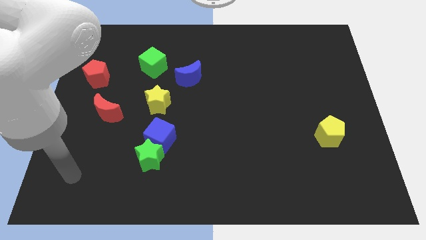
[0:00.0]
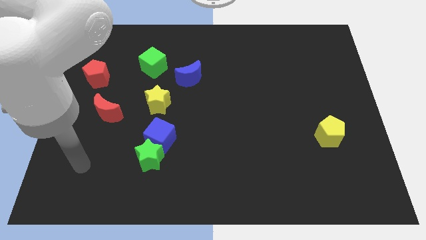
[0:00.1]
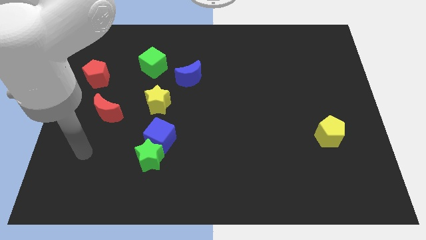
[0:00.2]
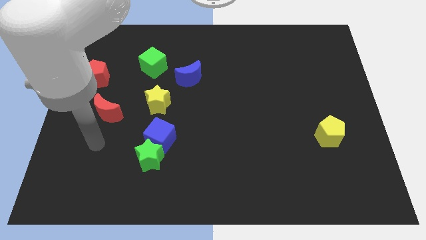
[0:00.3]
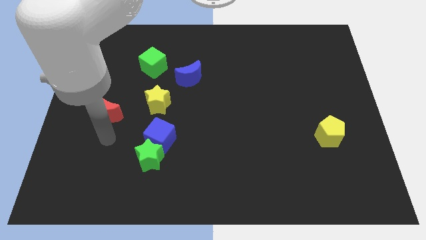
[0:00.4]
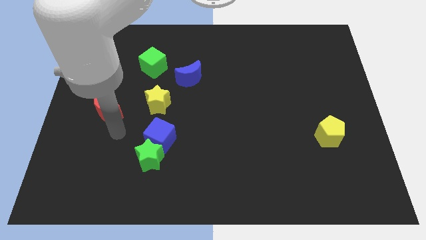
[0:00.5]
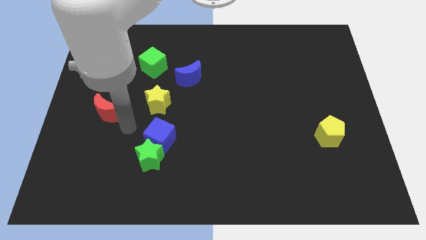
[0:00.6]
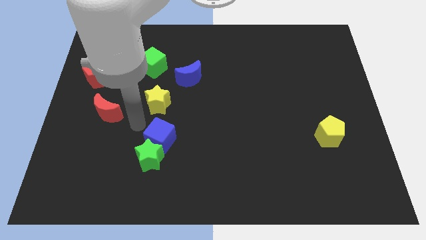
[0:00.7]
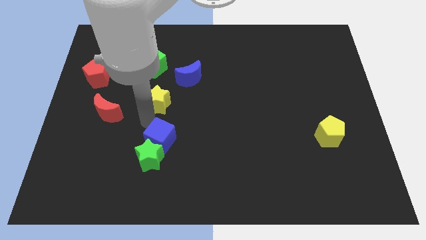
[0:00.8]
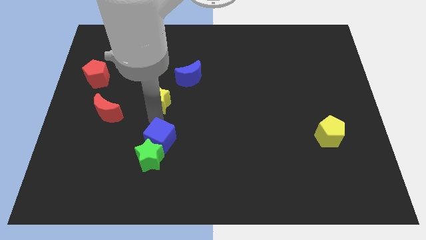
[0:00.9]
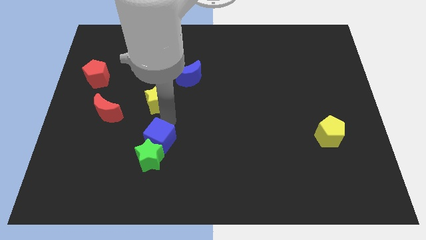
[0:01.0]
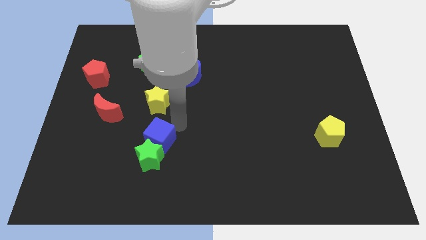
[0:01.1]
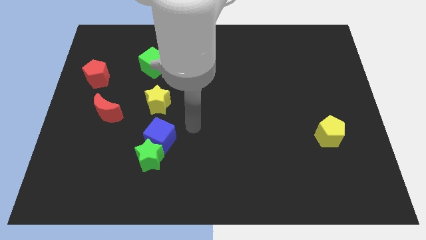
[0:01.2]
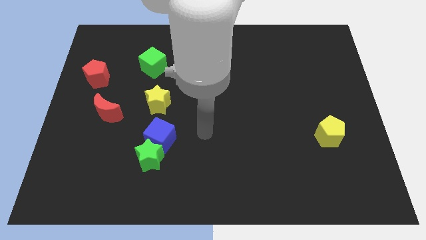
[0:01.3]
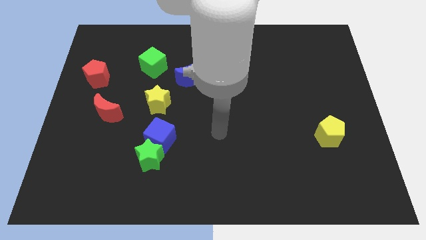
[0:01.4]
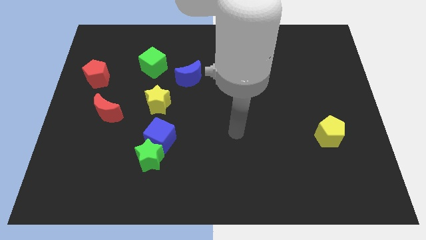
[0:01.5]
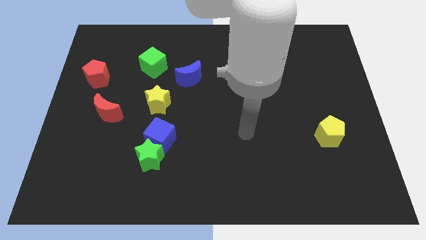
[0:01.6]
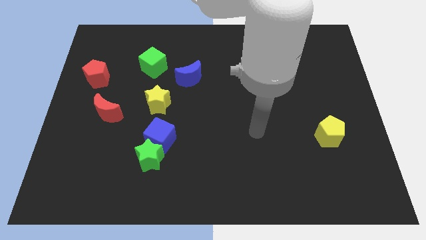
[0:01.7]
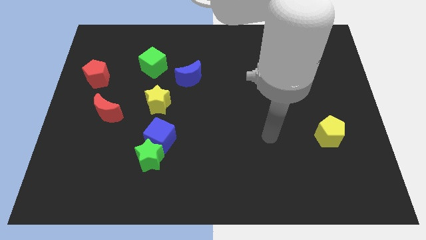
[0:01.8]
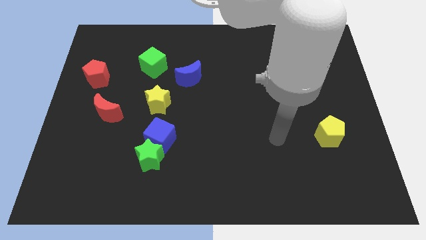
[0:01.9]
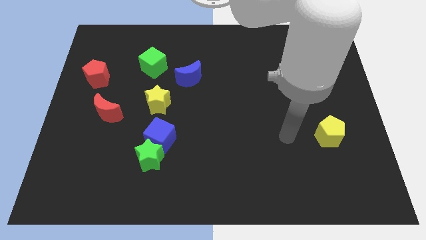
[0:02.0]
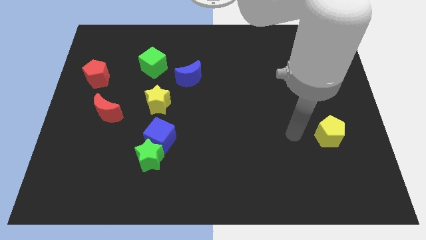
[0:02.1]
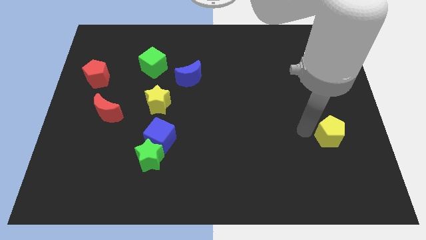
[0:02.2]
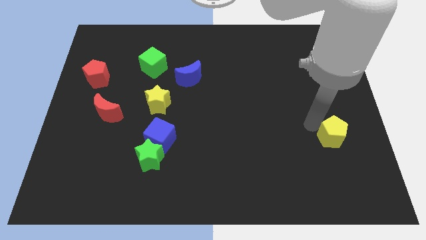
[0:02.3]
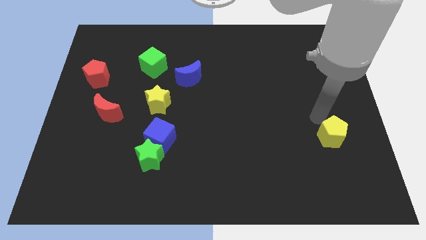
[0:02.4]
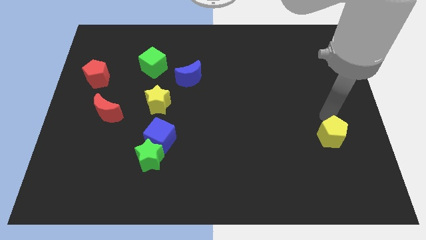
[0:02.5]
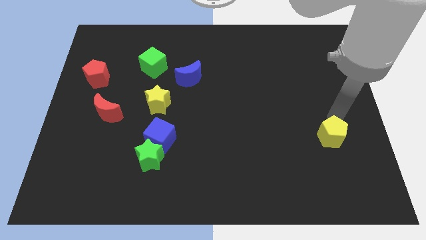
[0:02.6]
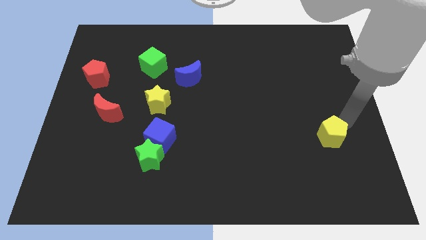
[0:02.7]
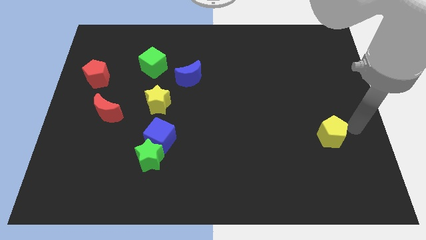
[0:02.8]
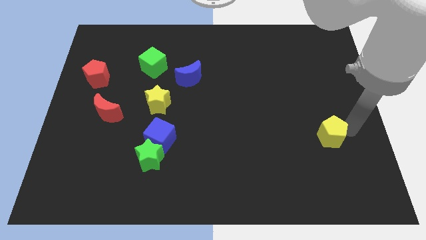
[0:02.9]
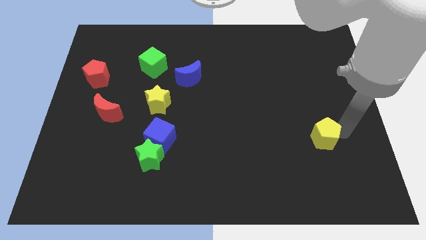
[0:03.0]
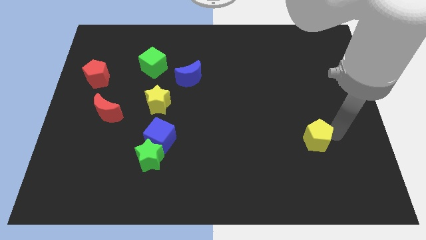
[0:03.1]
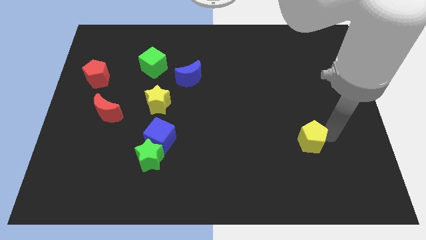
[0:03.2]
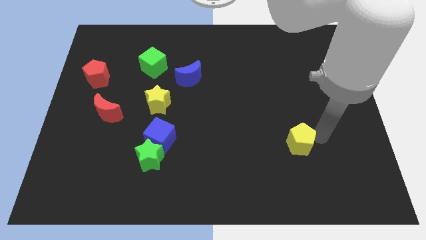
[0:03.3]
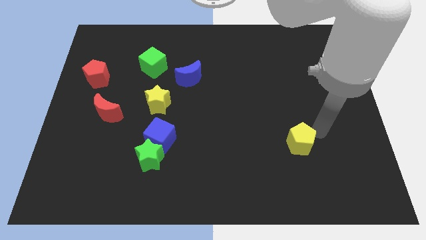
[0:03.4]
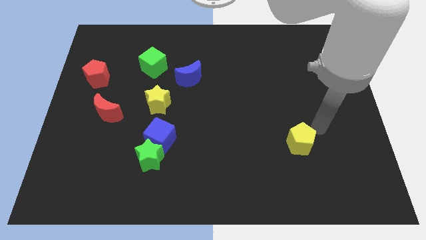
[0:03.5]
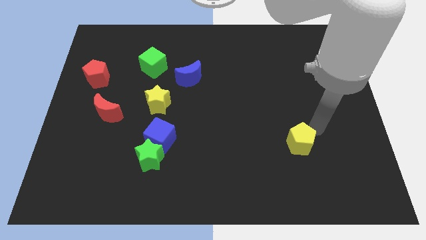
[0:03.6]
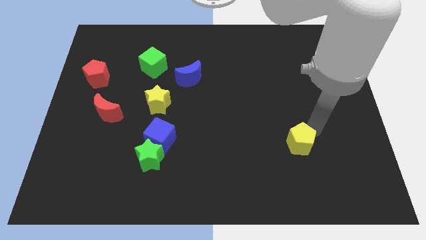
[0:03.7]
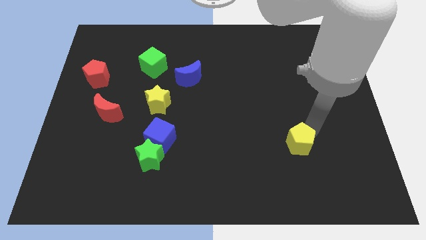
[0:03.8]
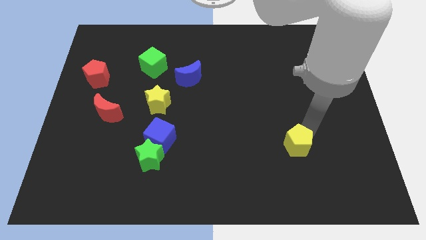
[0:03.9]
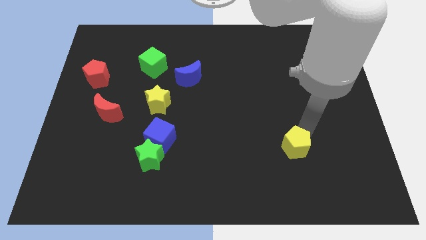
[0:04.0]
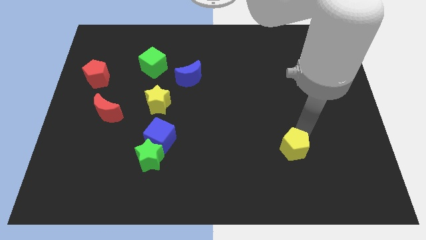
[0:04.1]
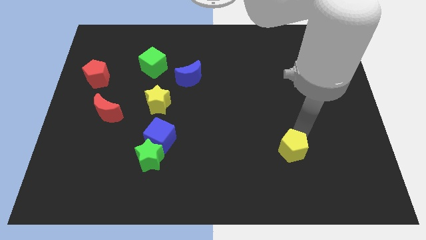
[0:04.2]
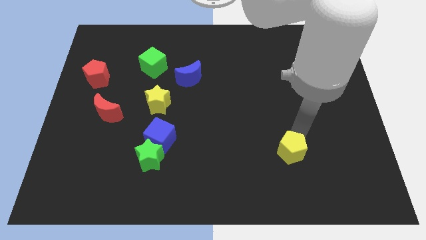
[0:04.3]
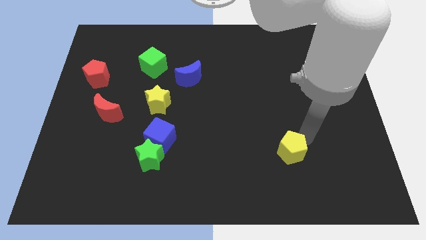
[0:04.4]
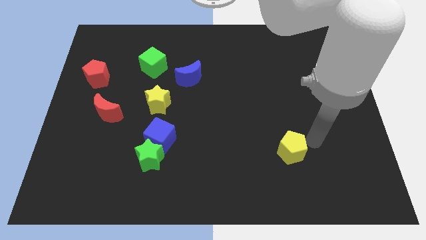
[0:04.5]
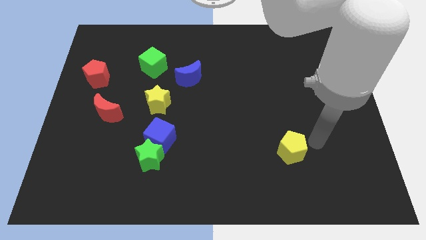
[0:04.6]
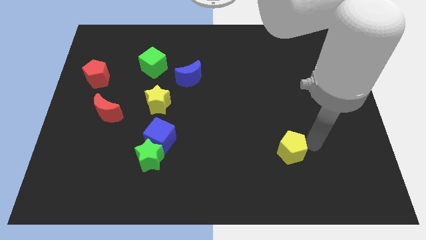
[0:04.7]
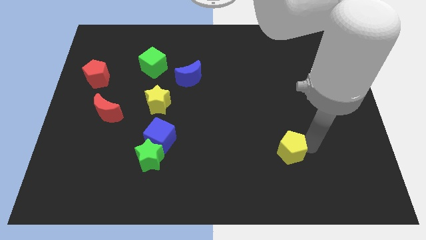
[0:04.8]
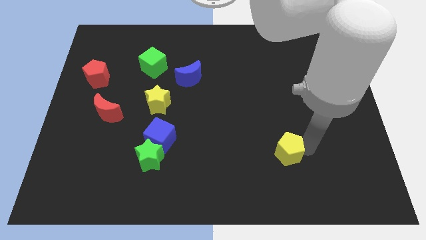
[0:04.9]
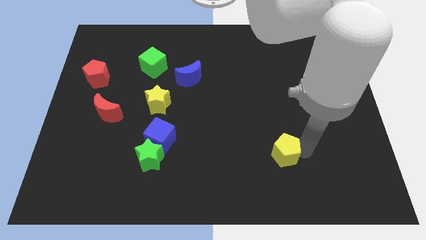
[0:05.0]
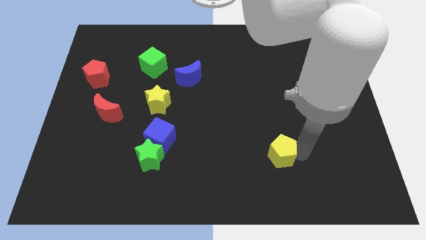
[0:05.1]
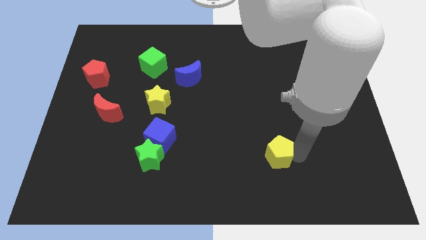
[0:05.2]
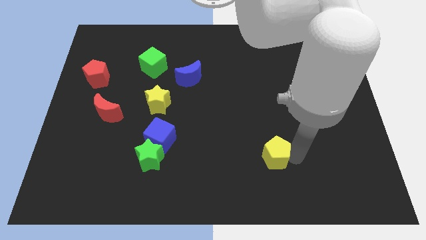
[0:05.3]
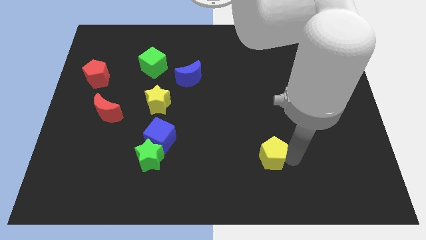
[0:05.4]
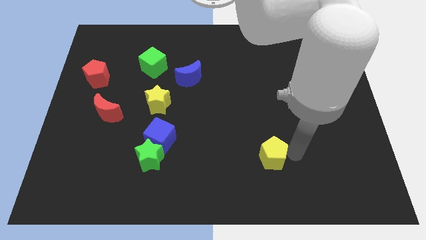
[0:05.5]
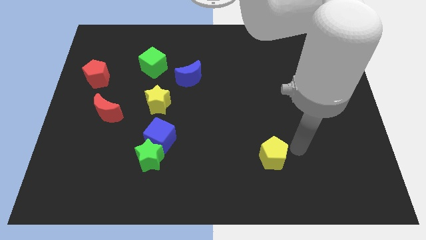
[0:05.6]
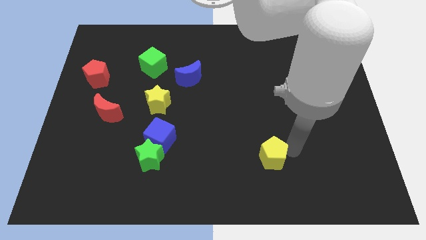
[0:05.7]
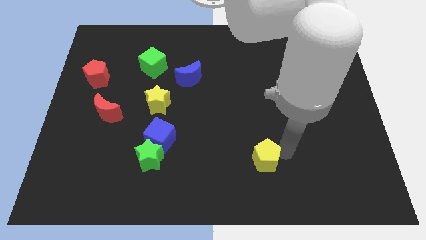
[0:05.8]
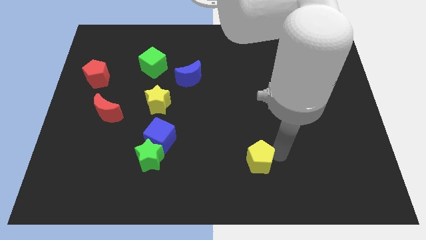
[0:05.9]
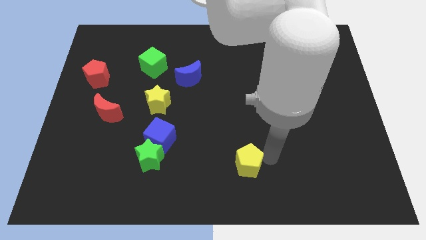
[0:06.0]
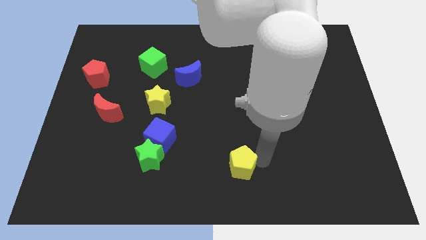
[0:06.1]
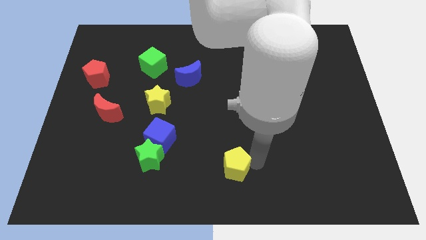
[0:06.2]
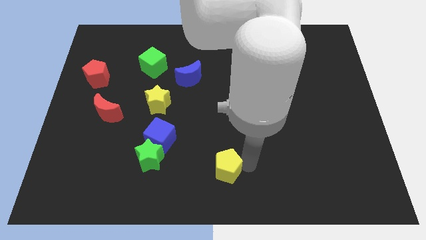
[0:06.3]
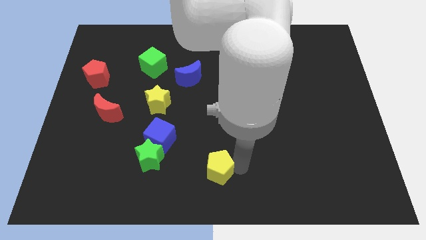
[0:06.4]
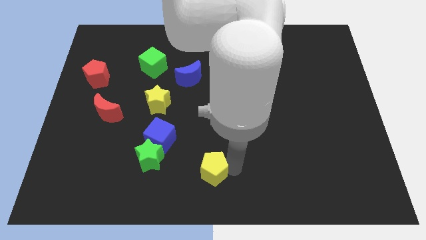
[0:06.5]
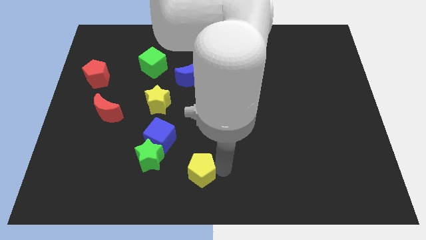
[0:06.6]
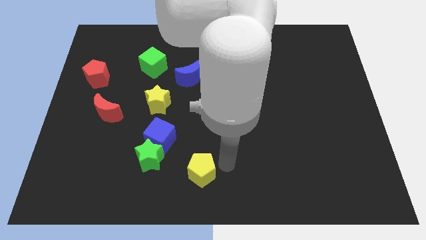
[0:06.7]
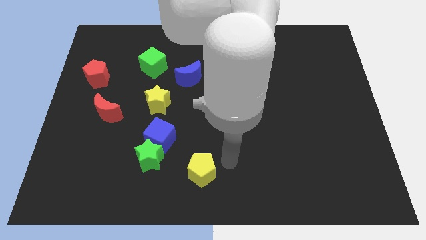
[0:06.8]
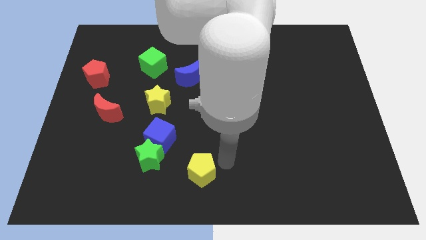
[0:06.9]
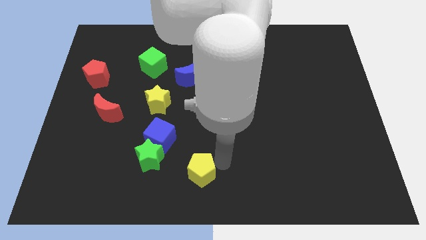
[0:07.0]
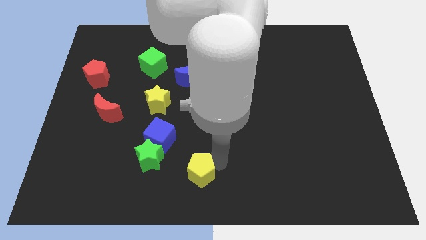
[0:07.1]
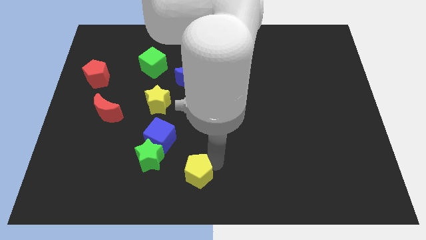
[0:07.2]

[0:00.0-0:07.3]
put the yellow pentagon to the bottom right side of the green star
